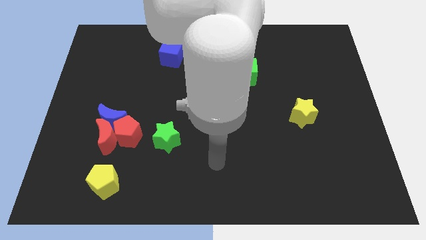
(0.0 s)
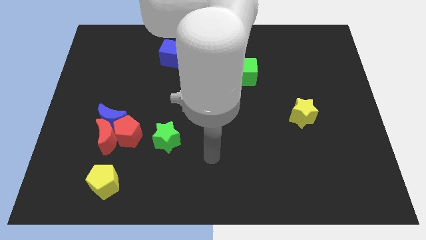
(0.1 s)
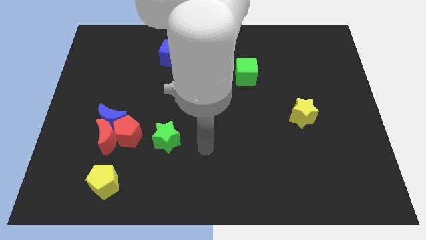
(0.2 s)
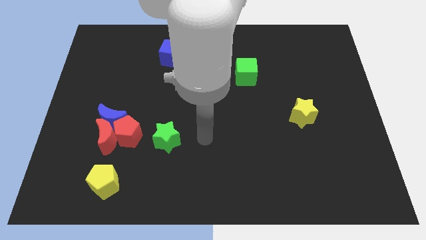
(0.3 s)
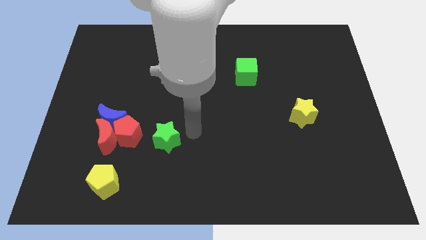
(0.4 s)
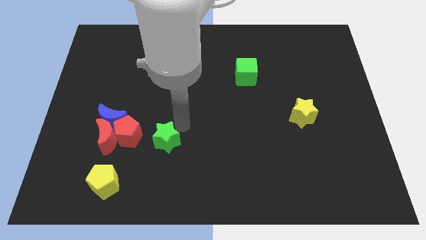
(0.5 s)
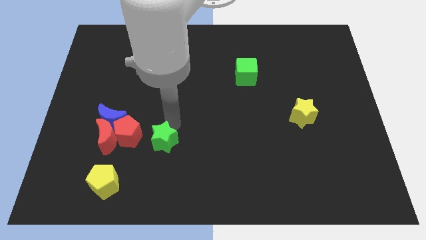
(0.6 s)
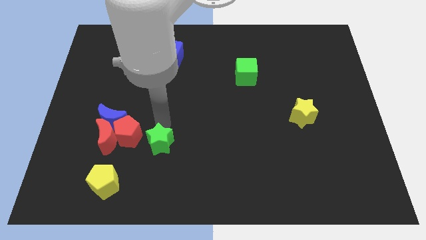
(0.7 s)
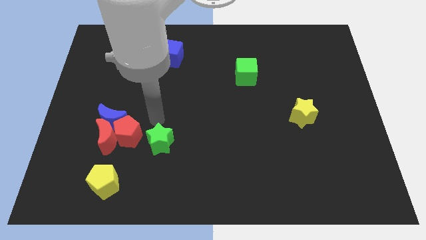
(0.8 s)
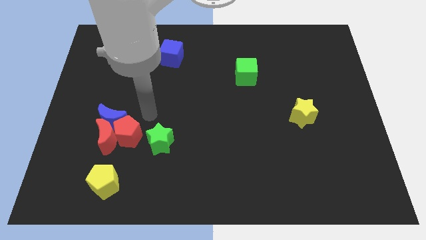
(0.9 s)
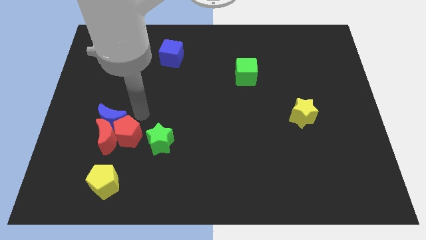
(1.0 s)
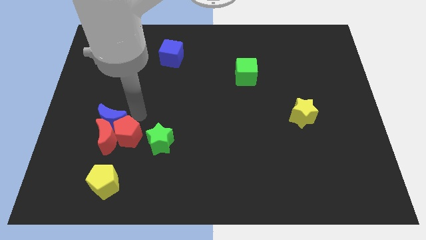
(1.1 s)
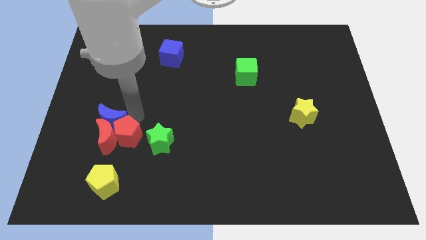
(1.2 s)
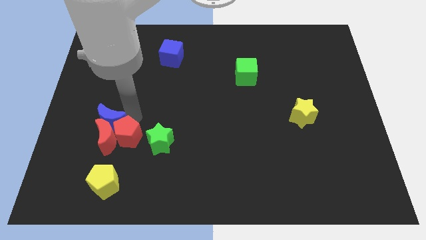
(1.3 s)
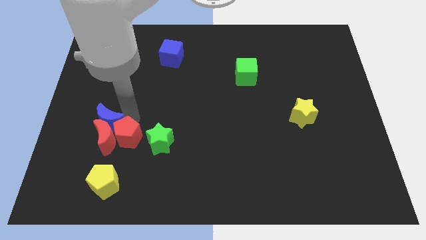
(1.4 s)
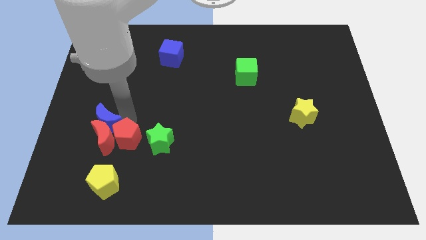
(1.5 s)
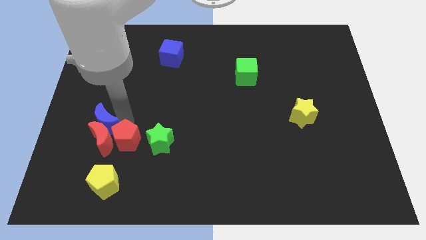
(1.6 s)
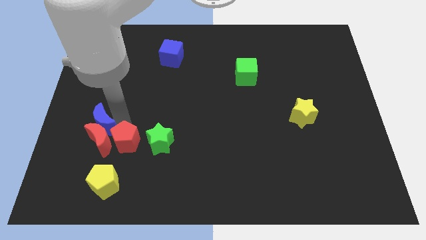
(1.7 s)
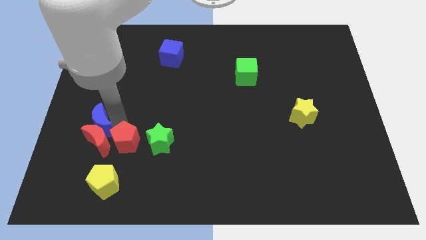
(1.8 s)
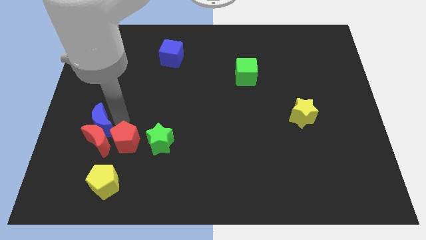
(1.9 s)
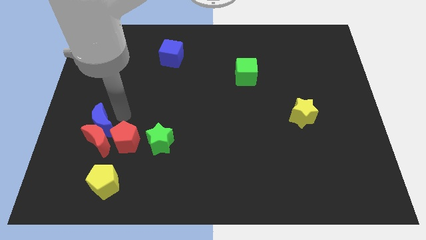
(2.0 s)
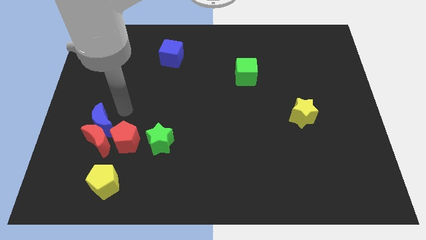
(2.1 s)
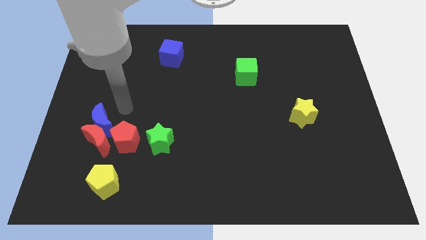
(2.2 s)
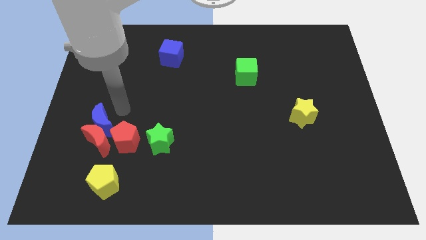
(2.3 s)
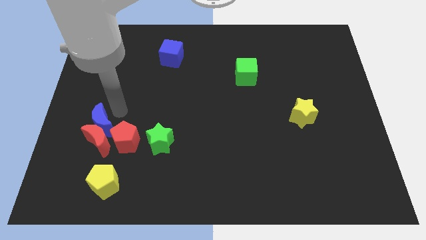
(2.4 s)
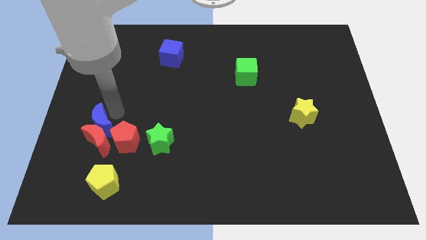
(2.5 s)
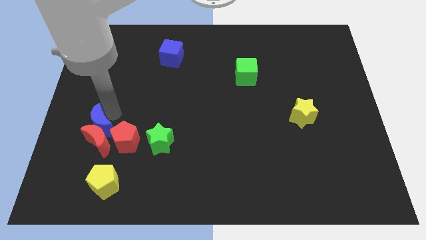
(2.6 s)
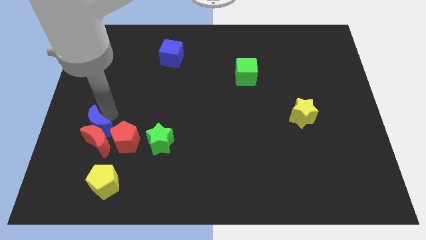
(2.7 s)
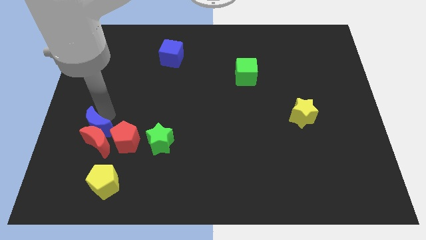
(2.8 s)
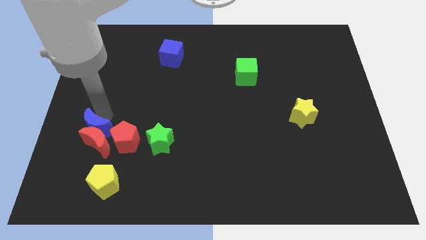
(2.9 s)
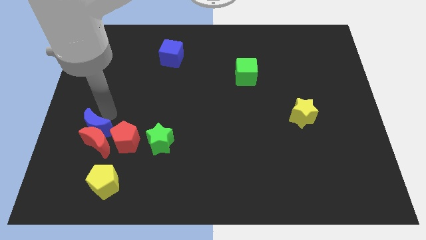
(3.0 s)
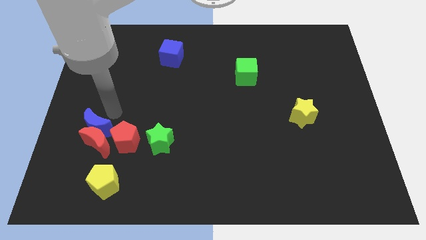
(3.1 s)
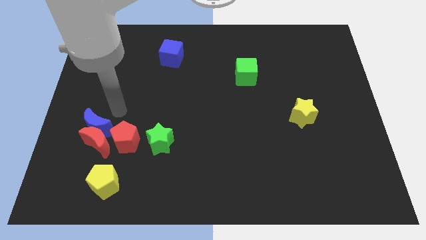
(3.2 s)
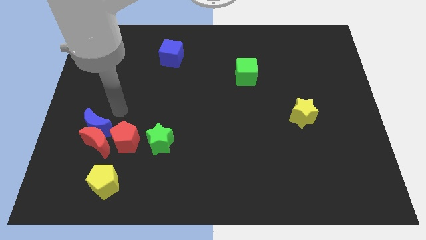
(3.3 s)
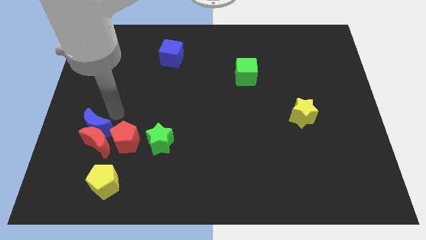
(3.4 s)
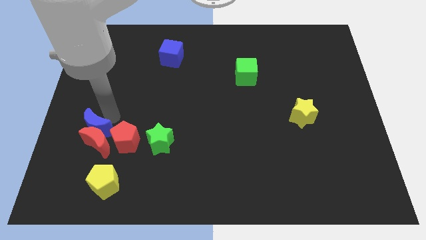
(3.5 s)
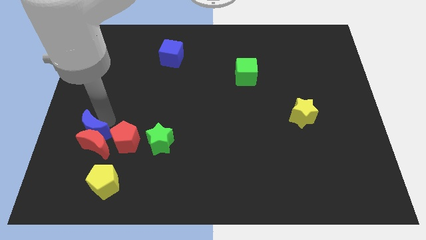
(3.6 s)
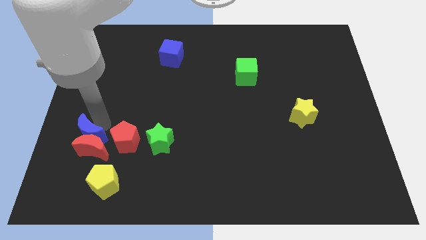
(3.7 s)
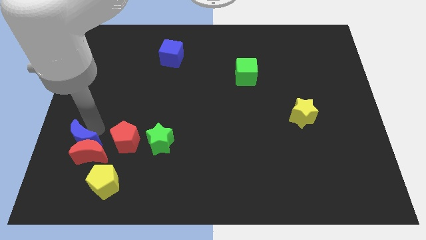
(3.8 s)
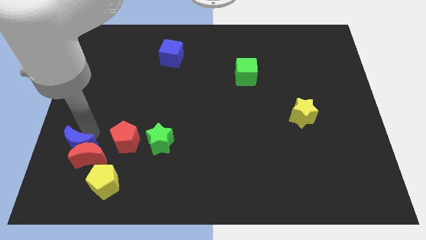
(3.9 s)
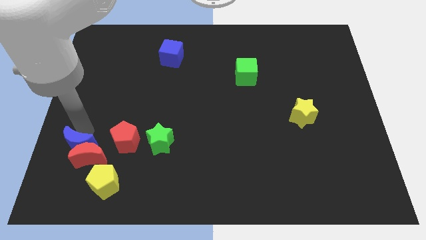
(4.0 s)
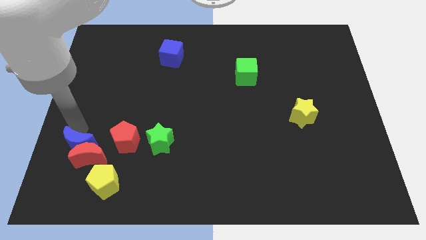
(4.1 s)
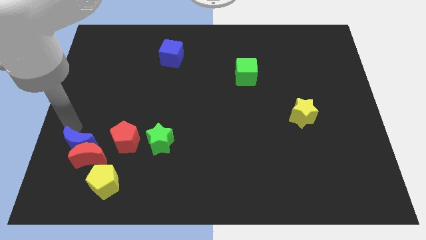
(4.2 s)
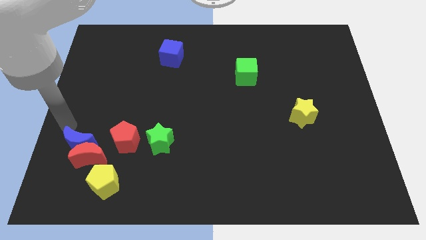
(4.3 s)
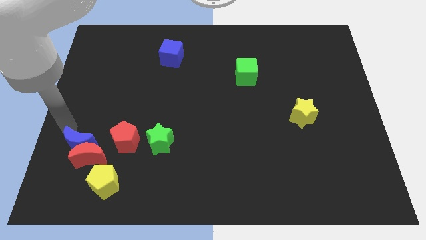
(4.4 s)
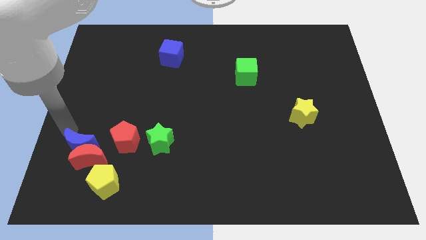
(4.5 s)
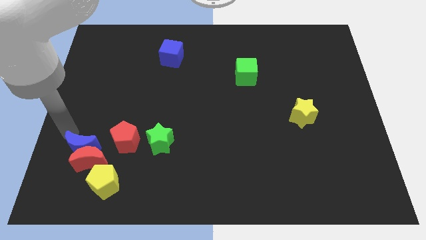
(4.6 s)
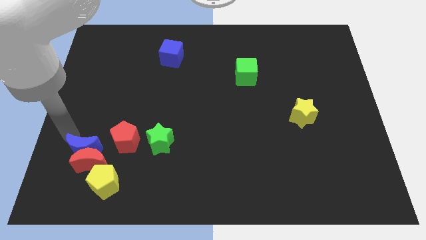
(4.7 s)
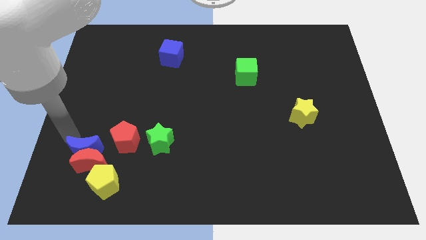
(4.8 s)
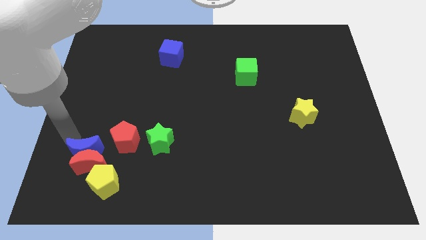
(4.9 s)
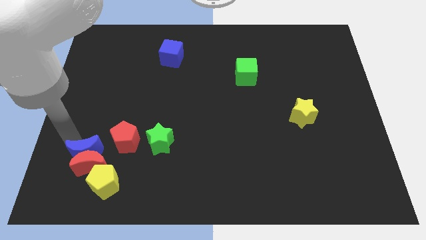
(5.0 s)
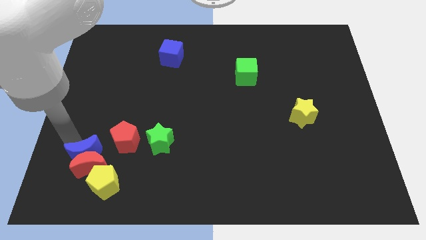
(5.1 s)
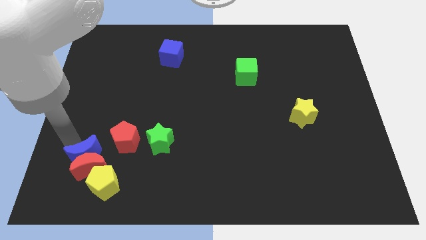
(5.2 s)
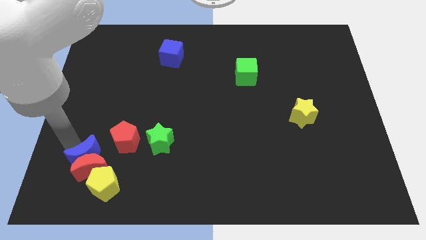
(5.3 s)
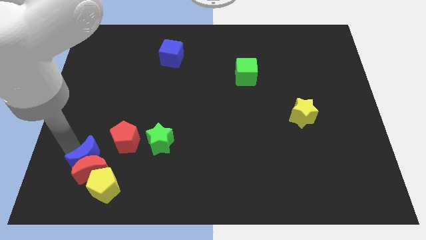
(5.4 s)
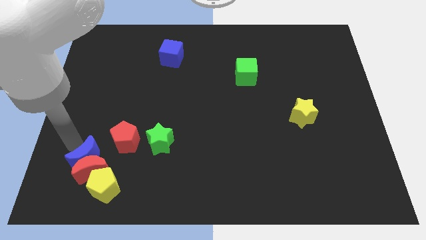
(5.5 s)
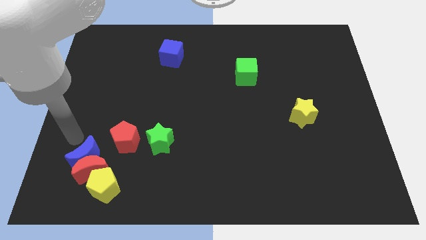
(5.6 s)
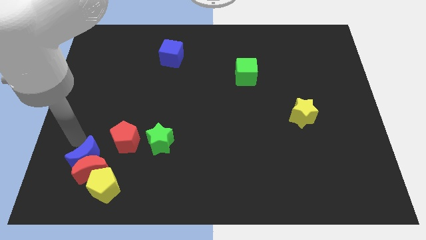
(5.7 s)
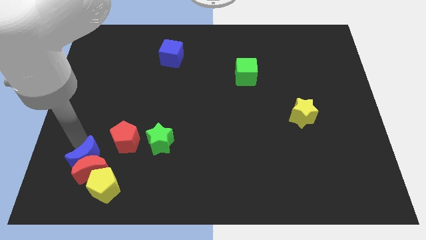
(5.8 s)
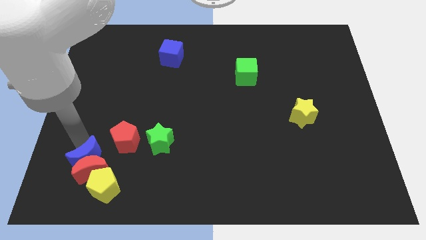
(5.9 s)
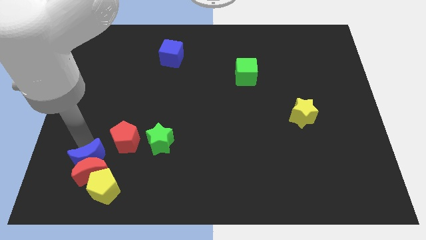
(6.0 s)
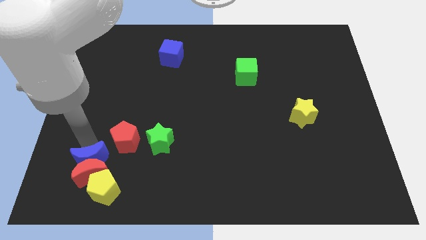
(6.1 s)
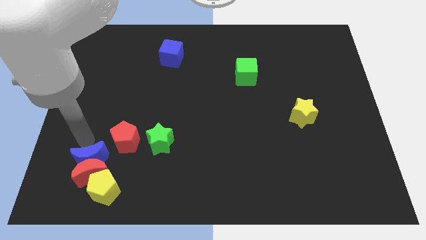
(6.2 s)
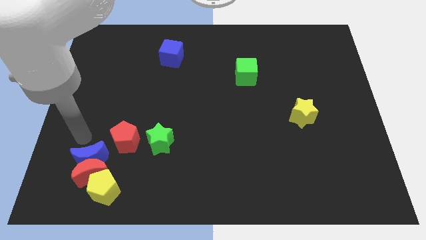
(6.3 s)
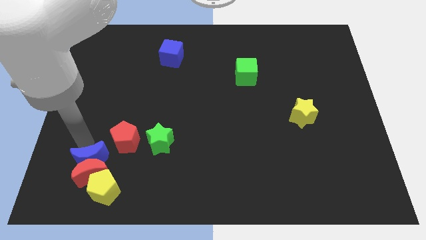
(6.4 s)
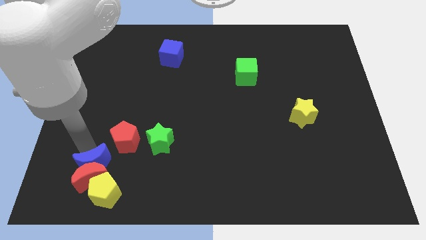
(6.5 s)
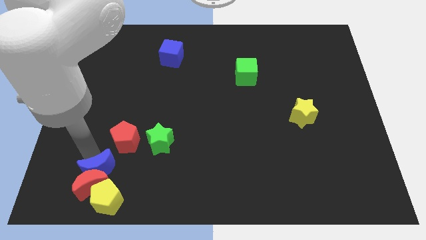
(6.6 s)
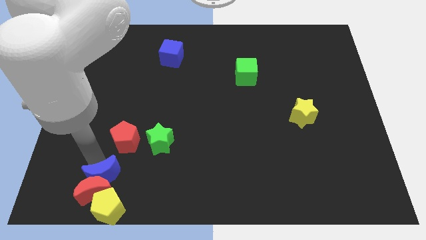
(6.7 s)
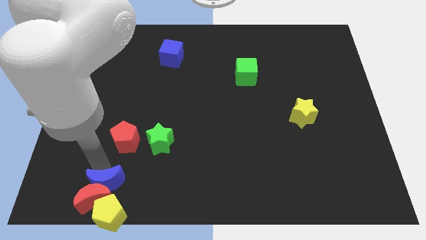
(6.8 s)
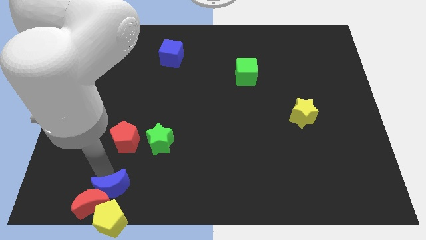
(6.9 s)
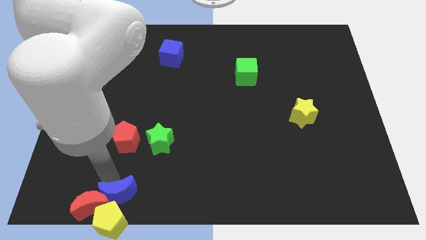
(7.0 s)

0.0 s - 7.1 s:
put the blue moon next to the yellow pentagon
